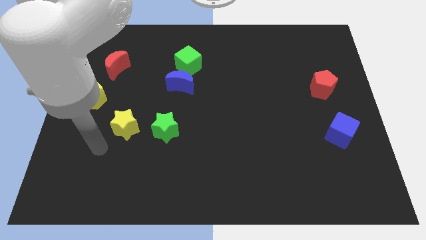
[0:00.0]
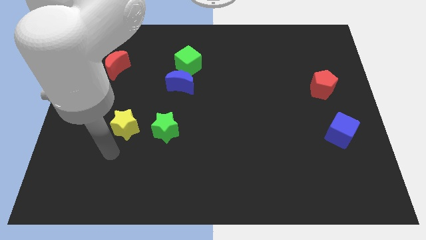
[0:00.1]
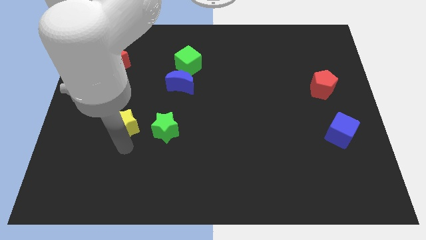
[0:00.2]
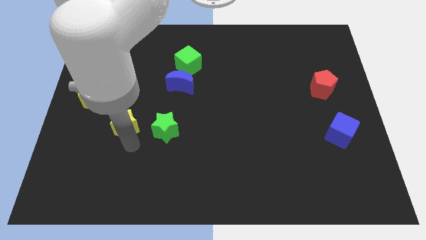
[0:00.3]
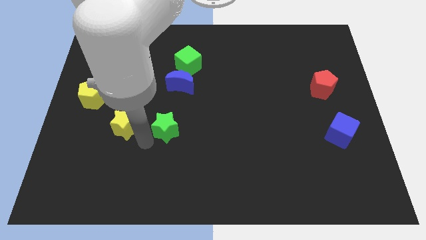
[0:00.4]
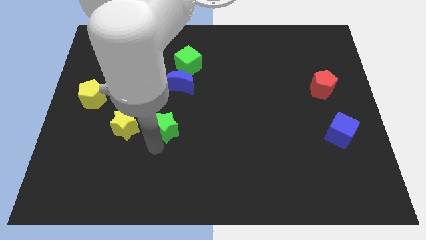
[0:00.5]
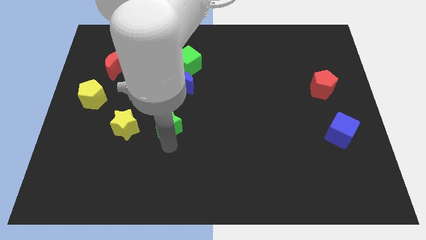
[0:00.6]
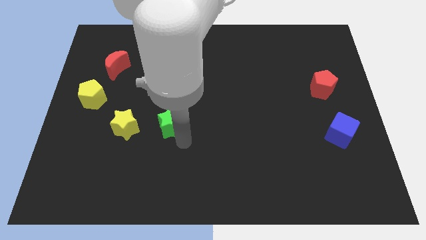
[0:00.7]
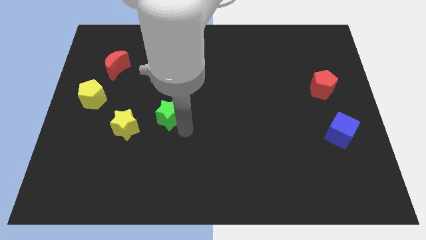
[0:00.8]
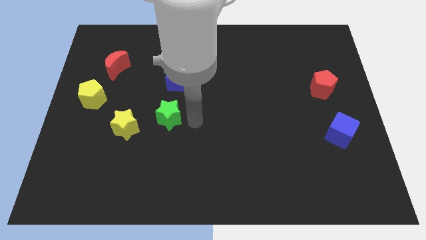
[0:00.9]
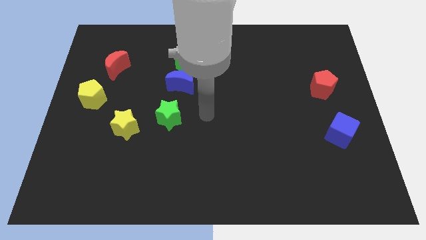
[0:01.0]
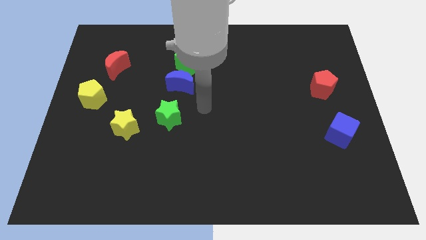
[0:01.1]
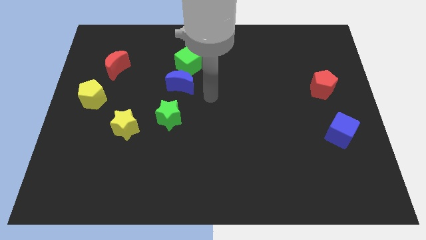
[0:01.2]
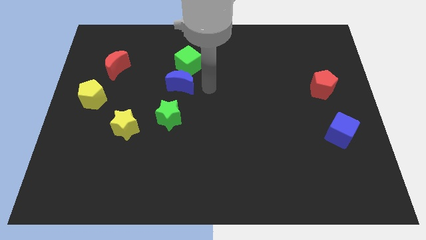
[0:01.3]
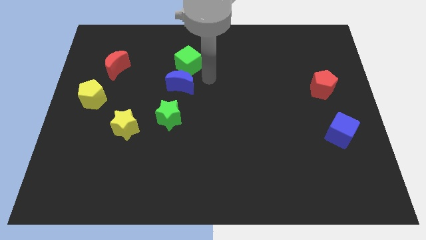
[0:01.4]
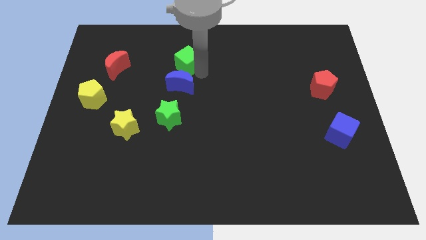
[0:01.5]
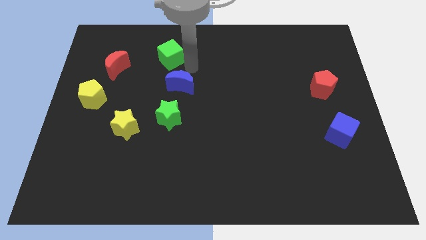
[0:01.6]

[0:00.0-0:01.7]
separate the blue moon from the green cube

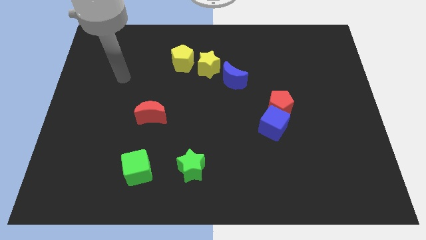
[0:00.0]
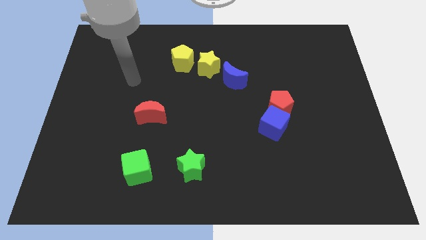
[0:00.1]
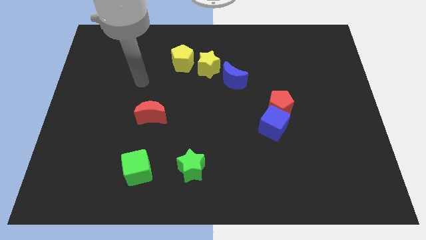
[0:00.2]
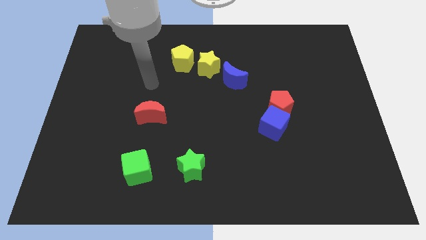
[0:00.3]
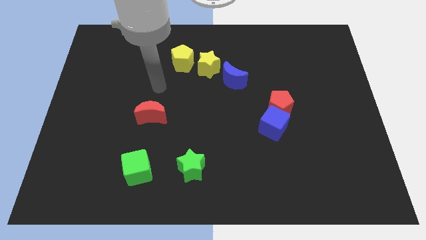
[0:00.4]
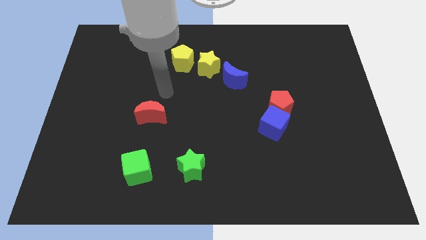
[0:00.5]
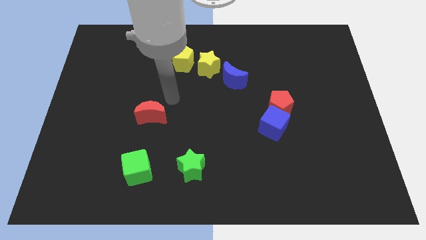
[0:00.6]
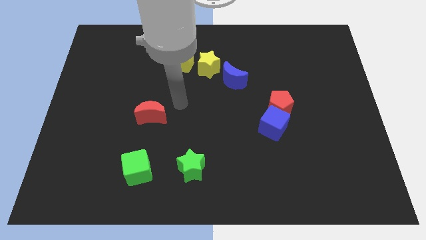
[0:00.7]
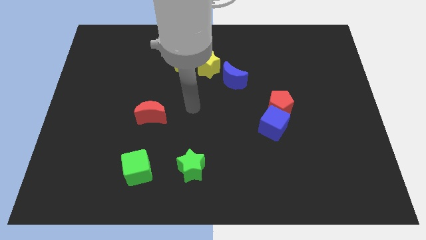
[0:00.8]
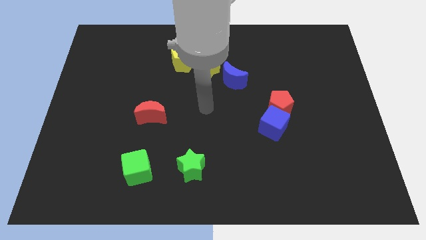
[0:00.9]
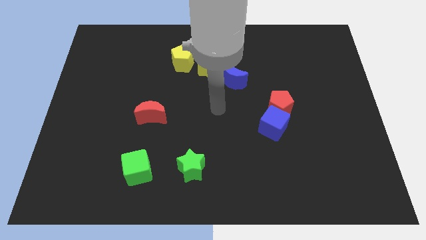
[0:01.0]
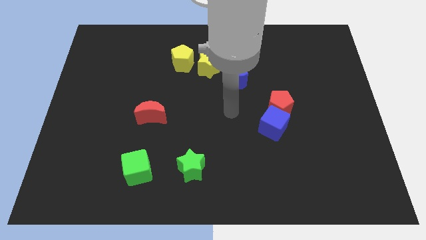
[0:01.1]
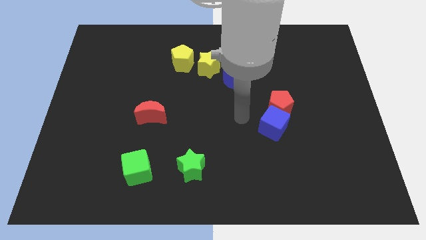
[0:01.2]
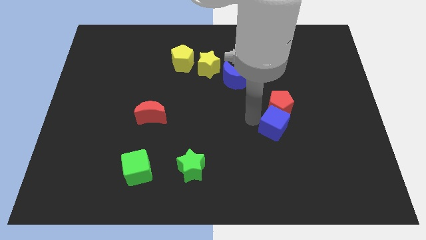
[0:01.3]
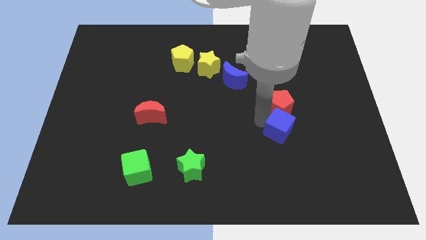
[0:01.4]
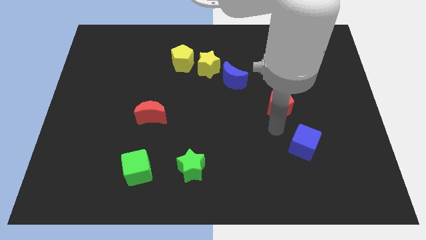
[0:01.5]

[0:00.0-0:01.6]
pull the red pentagon apart from the blue cube

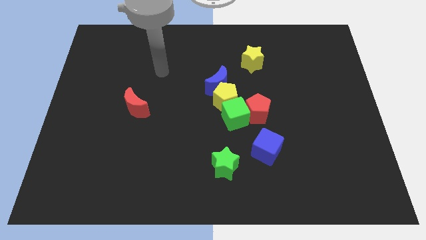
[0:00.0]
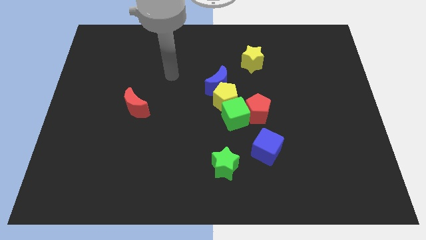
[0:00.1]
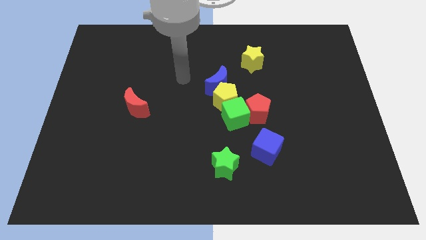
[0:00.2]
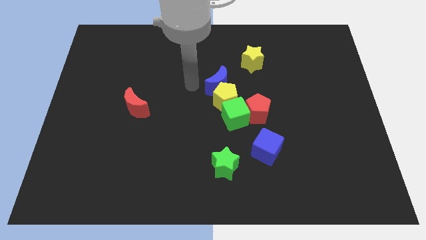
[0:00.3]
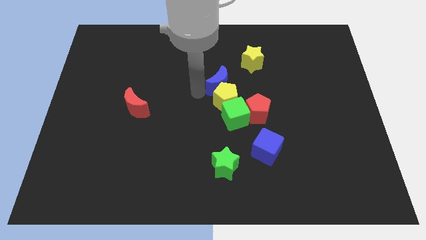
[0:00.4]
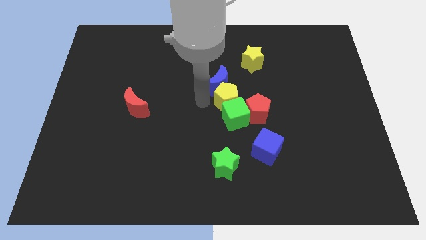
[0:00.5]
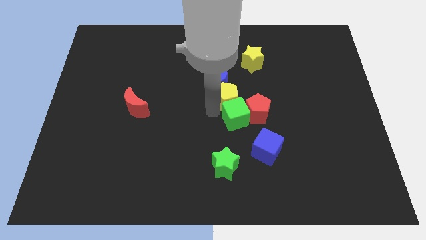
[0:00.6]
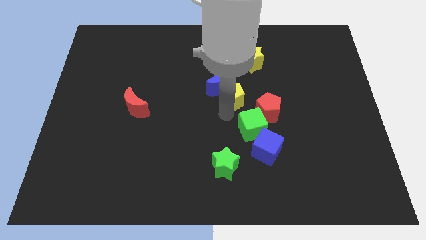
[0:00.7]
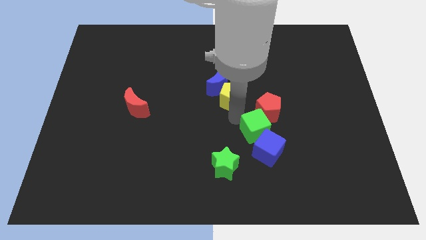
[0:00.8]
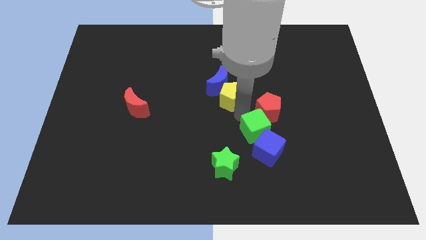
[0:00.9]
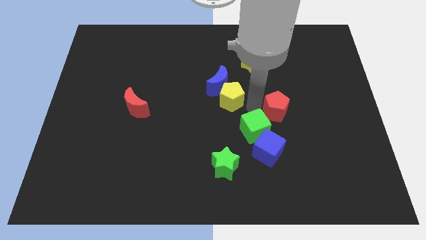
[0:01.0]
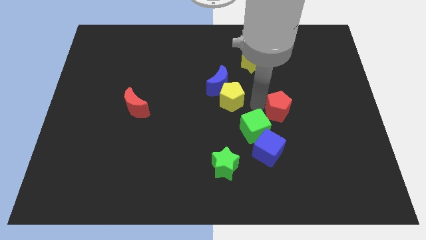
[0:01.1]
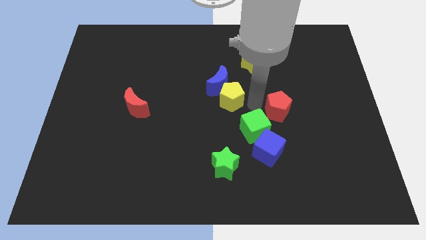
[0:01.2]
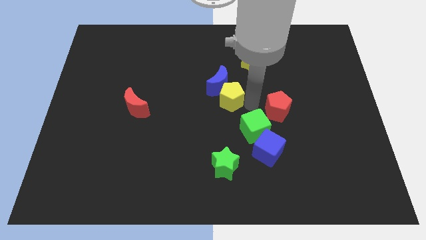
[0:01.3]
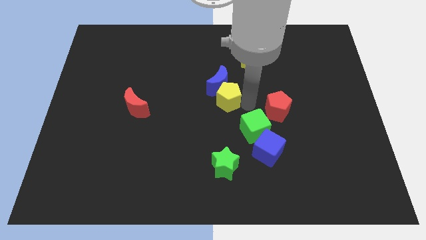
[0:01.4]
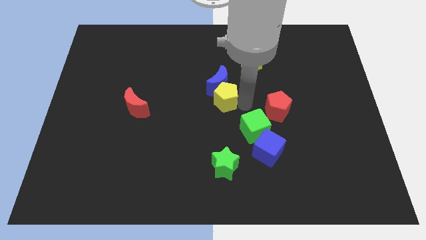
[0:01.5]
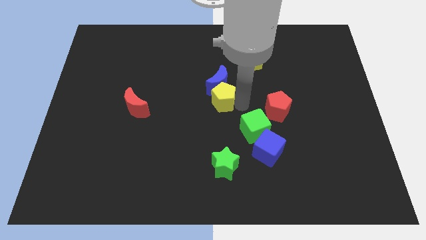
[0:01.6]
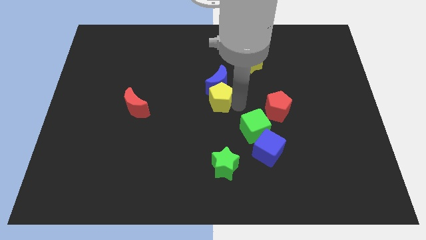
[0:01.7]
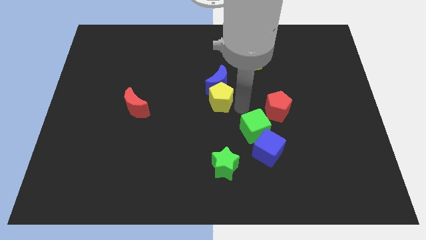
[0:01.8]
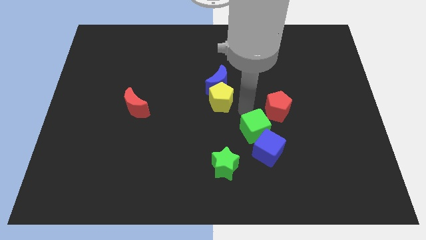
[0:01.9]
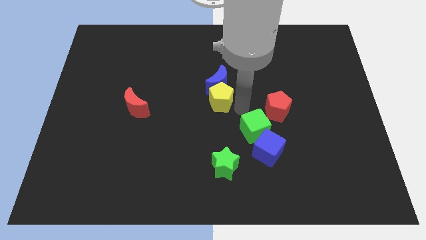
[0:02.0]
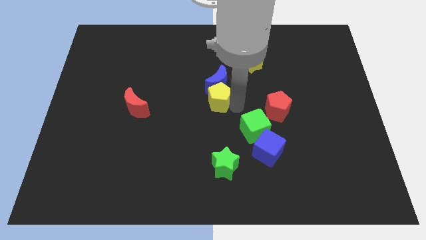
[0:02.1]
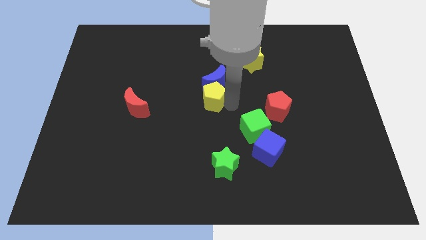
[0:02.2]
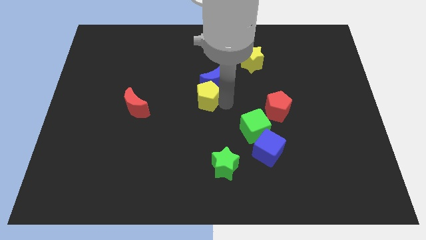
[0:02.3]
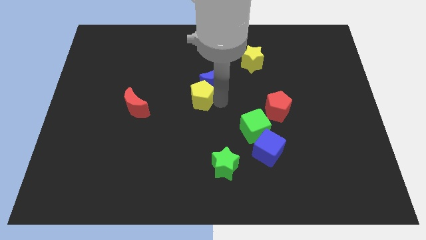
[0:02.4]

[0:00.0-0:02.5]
separate the yellow pentagon from the group of blocks

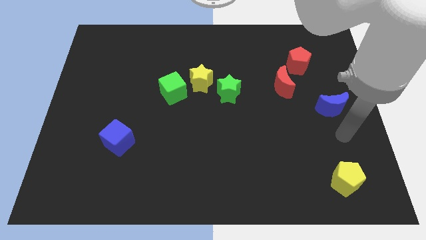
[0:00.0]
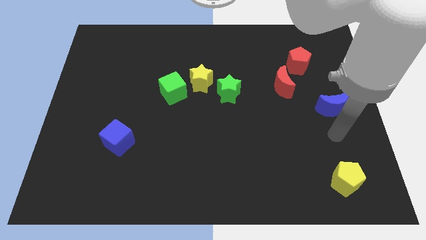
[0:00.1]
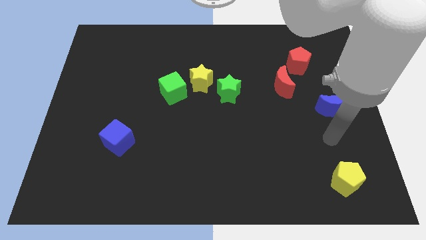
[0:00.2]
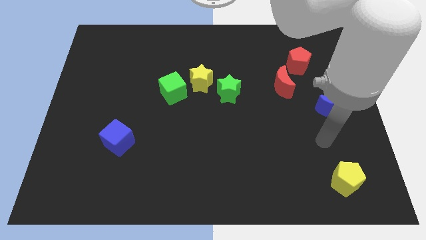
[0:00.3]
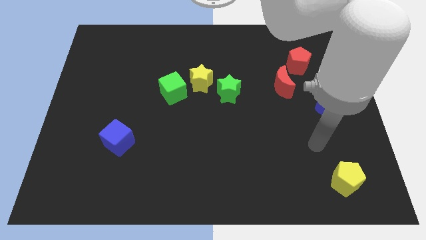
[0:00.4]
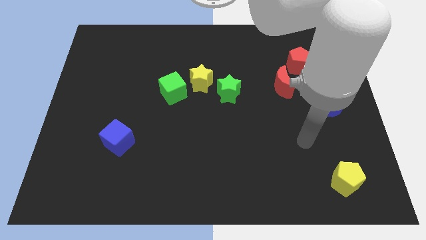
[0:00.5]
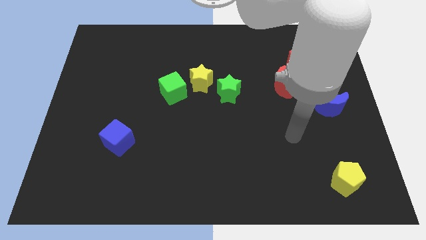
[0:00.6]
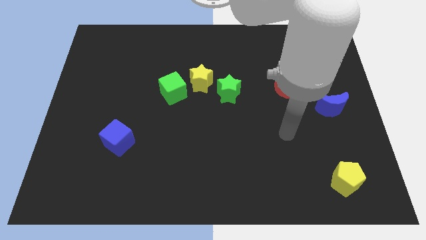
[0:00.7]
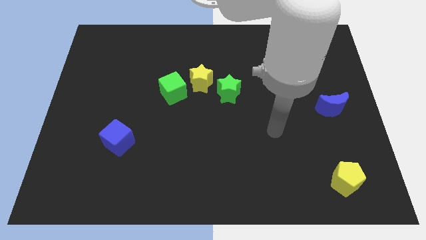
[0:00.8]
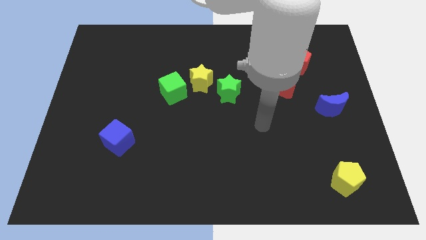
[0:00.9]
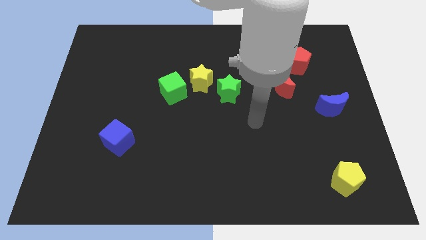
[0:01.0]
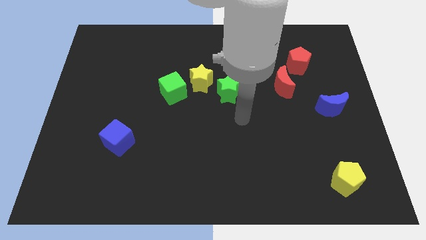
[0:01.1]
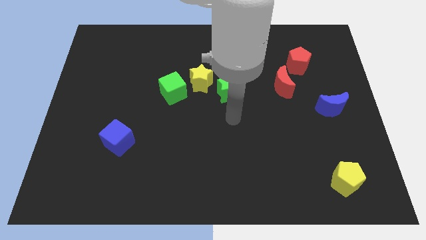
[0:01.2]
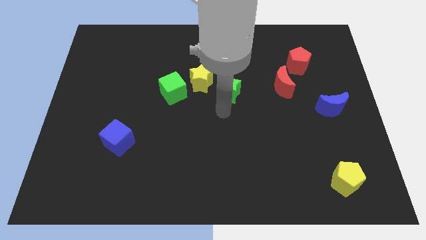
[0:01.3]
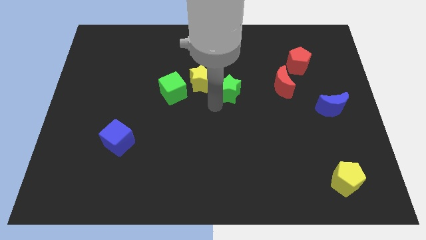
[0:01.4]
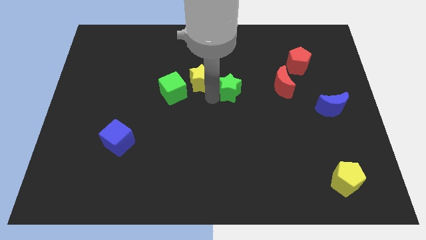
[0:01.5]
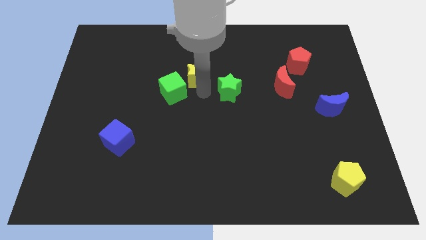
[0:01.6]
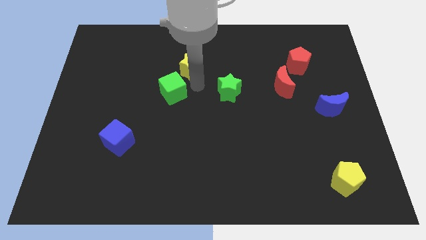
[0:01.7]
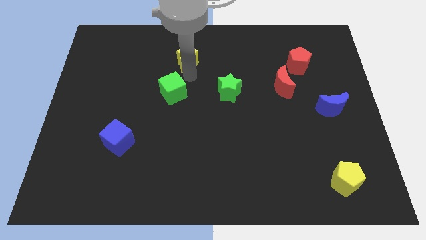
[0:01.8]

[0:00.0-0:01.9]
separate the green cube from the yellow star

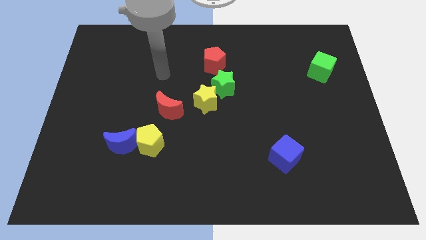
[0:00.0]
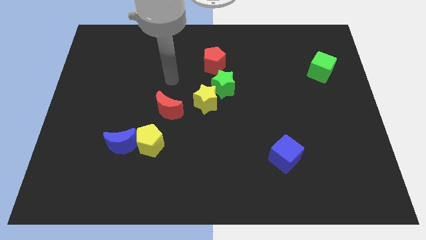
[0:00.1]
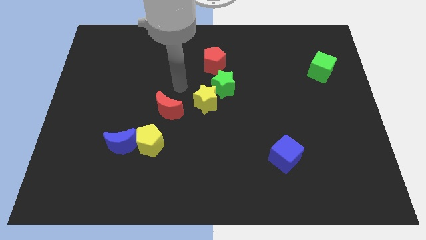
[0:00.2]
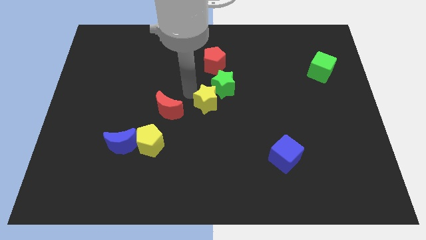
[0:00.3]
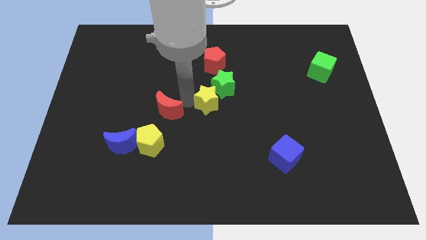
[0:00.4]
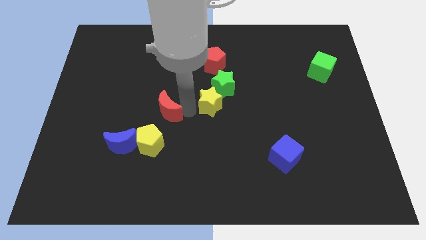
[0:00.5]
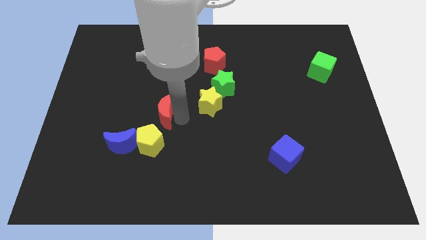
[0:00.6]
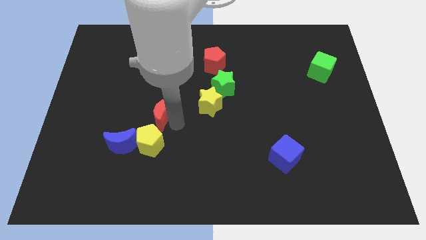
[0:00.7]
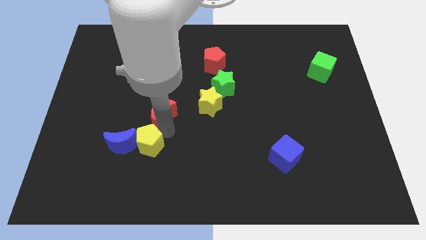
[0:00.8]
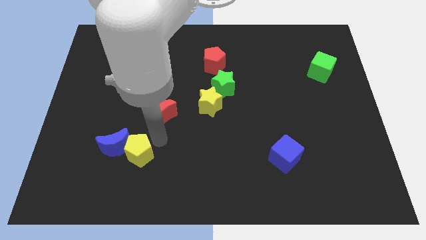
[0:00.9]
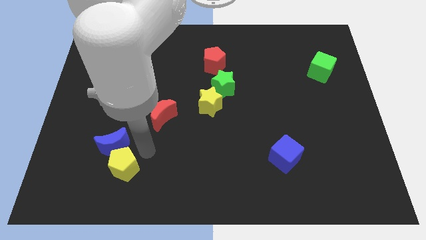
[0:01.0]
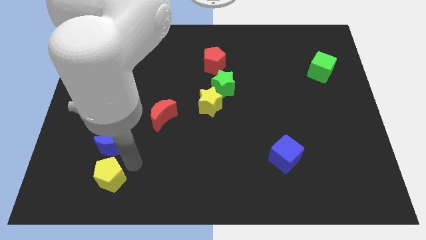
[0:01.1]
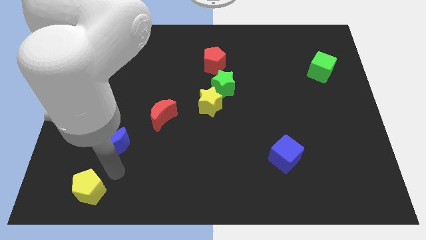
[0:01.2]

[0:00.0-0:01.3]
separate the blue moon from the yellow pentagon

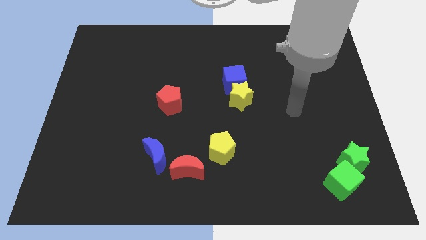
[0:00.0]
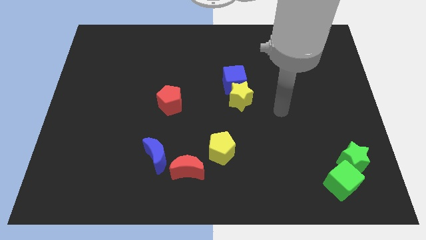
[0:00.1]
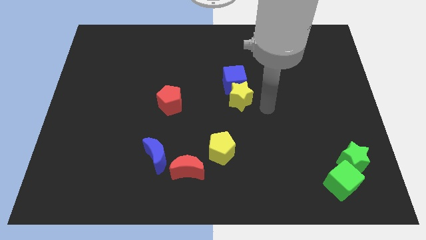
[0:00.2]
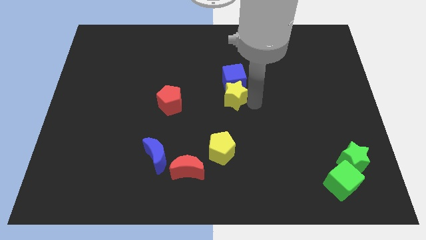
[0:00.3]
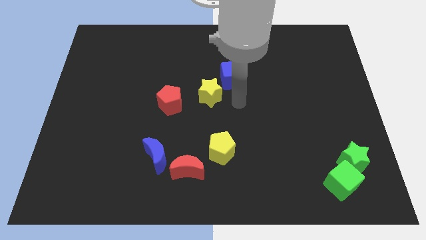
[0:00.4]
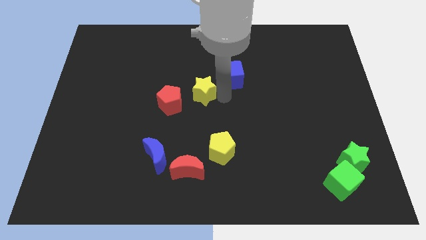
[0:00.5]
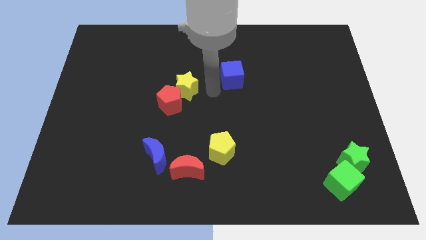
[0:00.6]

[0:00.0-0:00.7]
pull the blue cube apart from the yellow star
